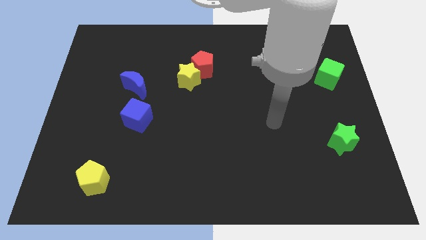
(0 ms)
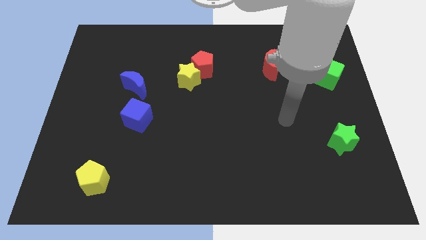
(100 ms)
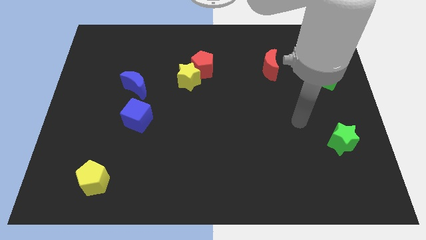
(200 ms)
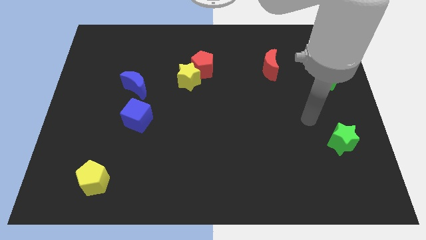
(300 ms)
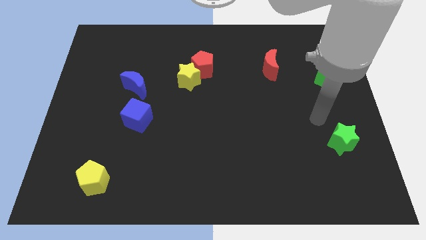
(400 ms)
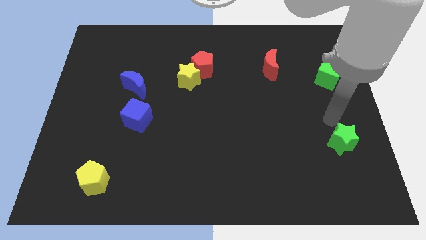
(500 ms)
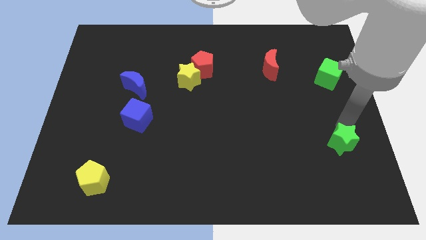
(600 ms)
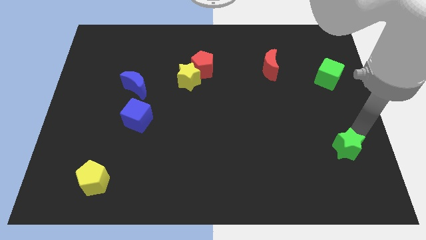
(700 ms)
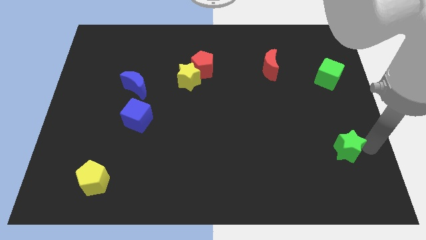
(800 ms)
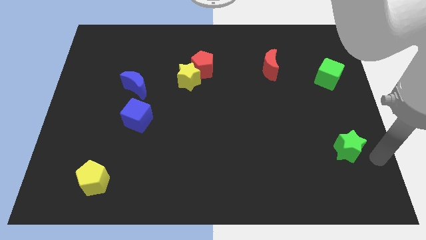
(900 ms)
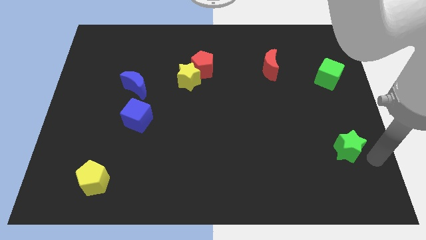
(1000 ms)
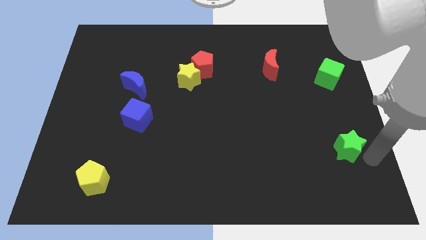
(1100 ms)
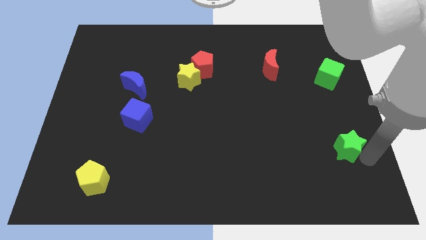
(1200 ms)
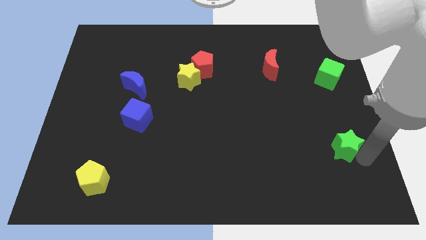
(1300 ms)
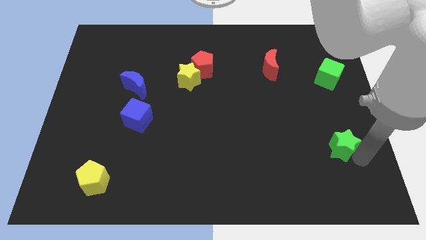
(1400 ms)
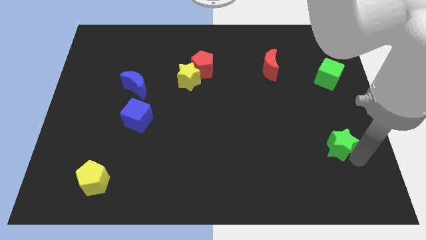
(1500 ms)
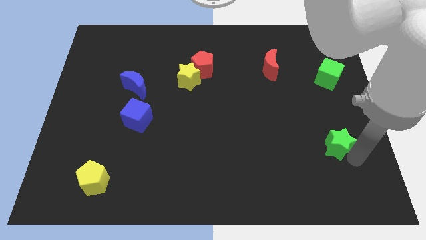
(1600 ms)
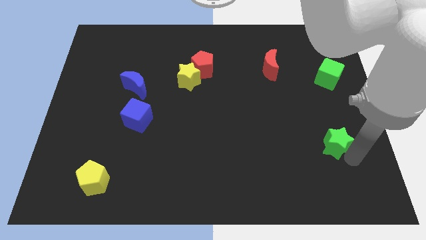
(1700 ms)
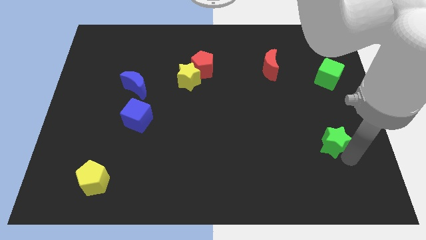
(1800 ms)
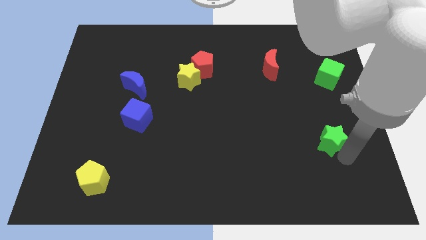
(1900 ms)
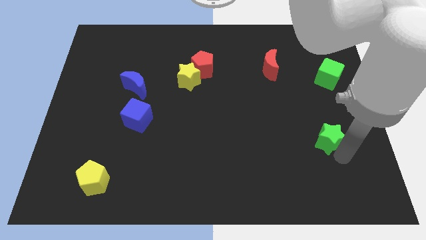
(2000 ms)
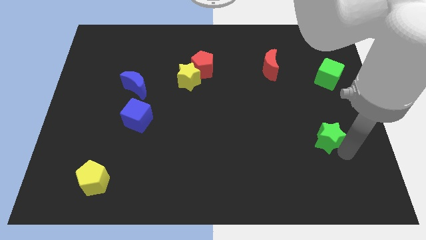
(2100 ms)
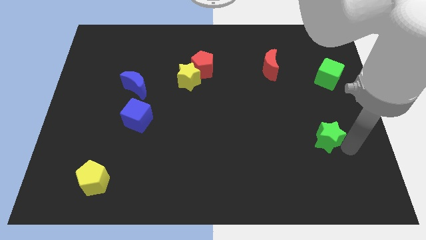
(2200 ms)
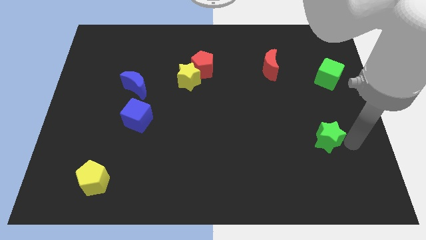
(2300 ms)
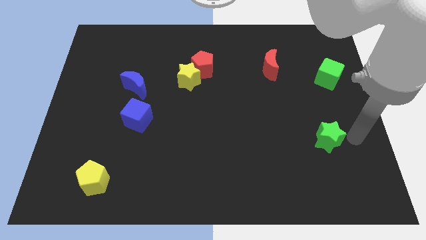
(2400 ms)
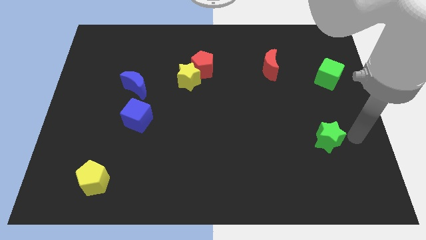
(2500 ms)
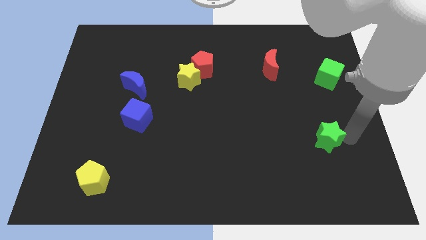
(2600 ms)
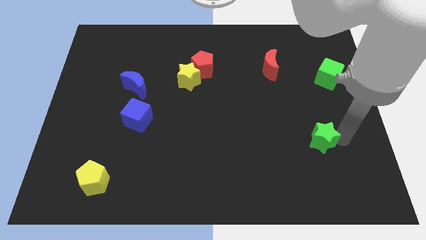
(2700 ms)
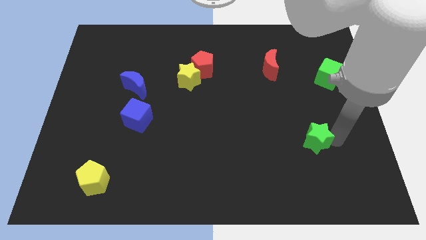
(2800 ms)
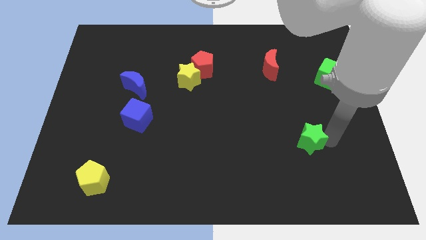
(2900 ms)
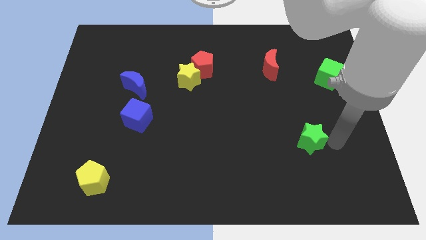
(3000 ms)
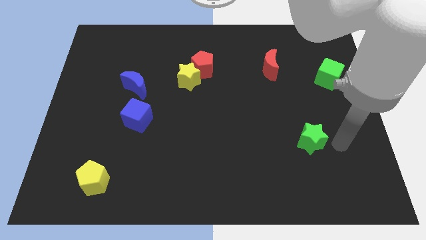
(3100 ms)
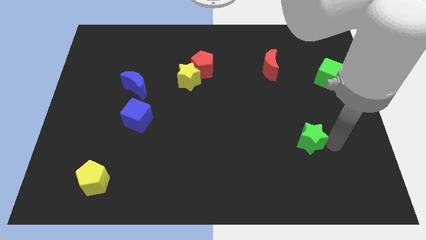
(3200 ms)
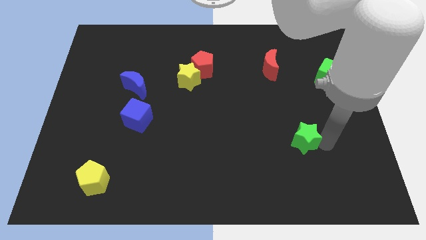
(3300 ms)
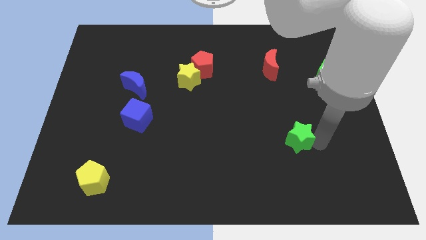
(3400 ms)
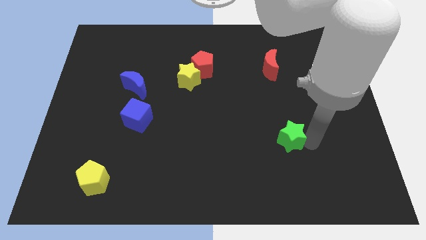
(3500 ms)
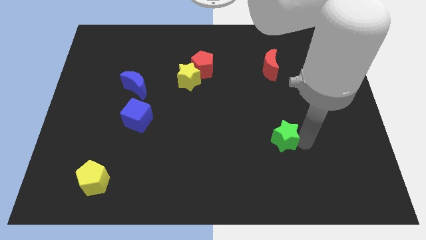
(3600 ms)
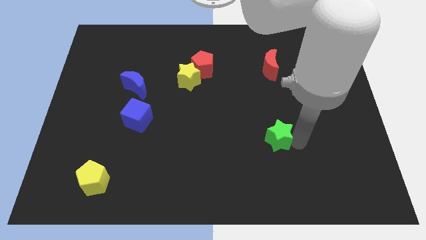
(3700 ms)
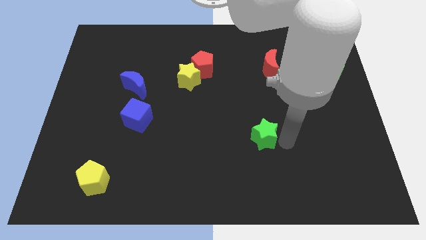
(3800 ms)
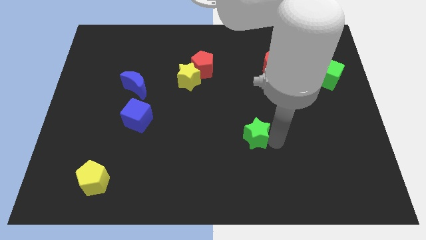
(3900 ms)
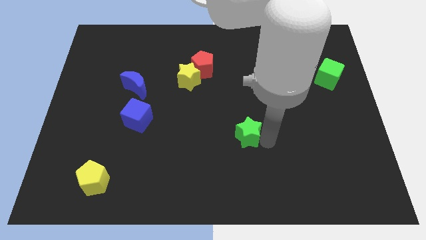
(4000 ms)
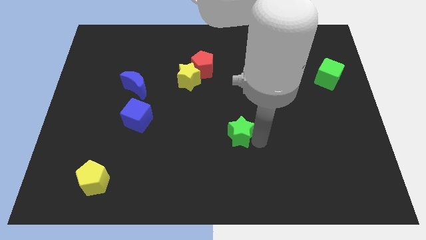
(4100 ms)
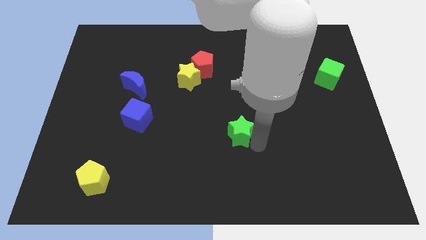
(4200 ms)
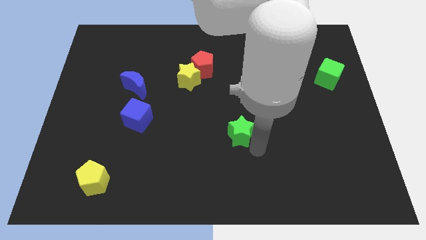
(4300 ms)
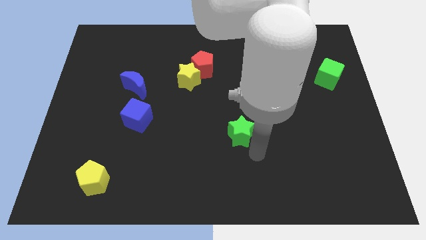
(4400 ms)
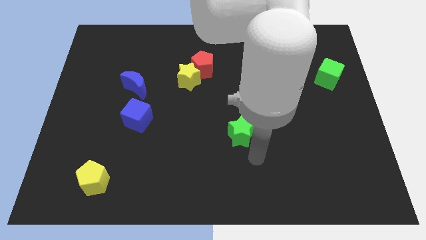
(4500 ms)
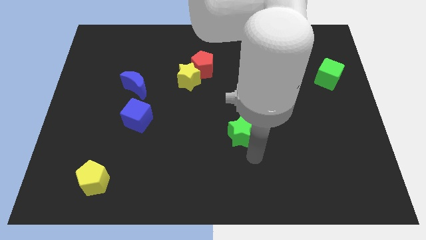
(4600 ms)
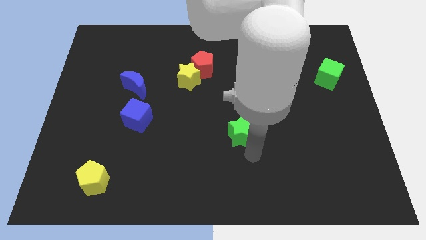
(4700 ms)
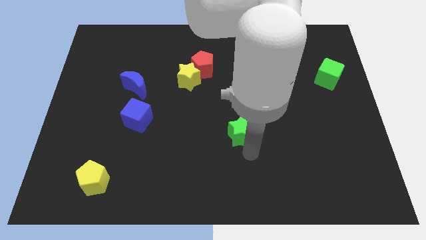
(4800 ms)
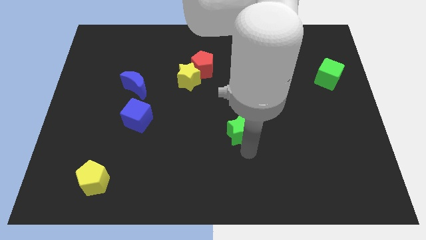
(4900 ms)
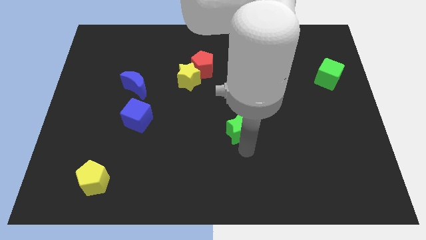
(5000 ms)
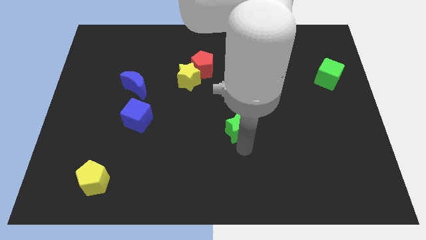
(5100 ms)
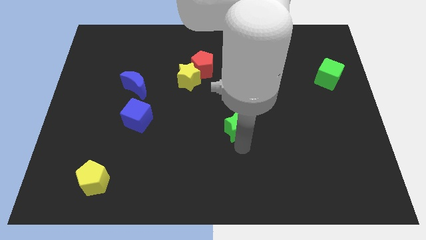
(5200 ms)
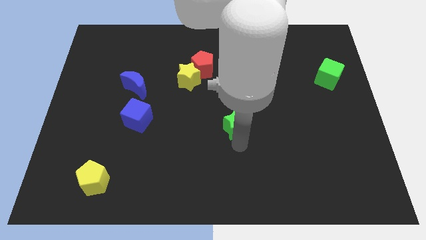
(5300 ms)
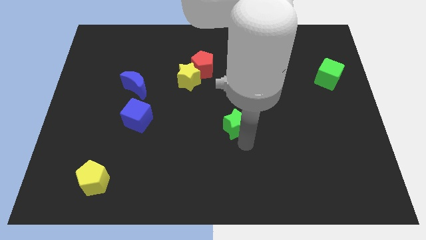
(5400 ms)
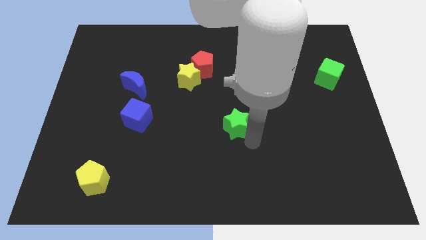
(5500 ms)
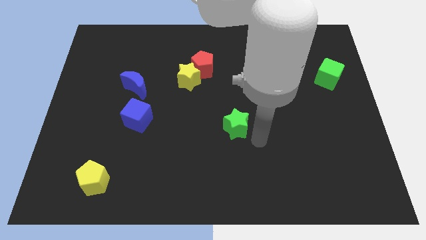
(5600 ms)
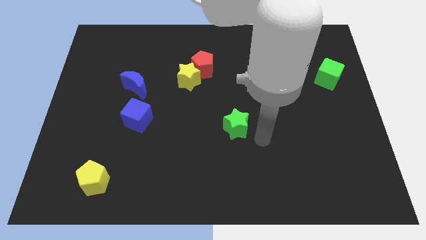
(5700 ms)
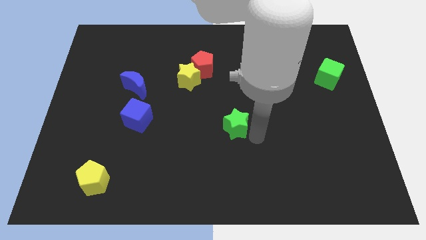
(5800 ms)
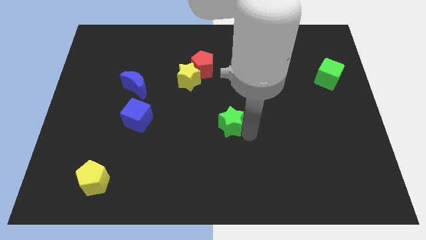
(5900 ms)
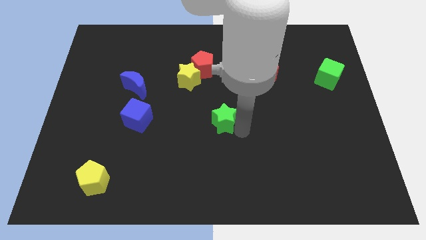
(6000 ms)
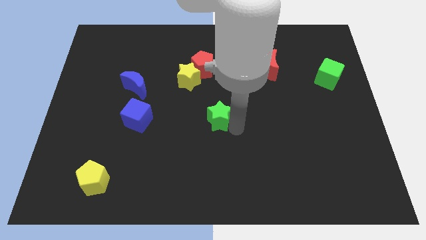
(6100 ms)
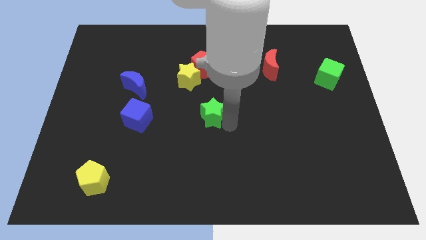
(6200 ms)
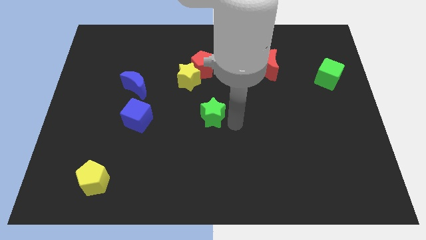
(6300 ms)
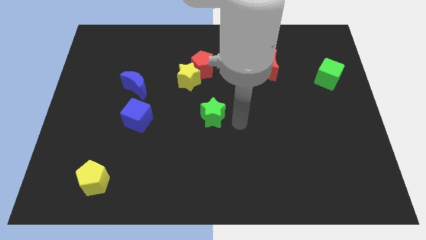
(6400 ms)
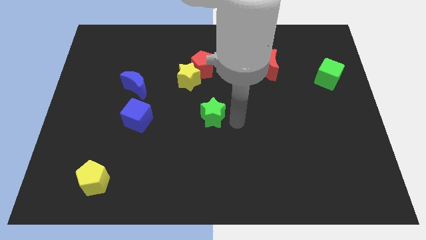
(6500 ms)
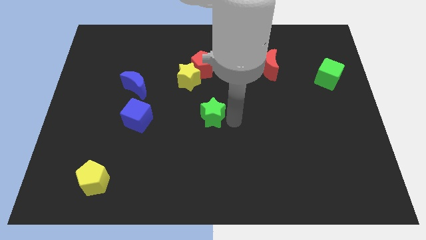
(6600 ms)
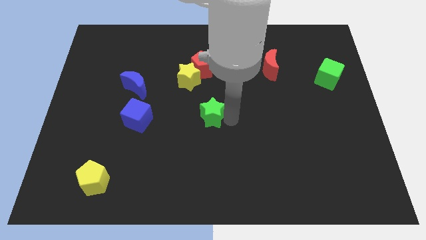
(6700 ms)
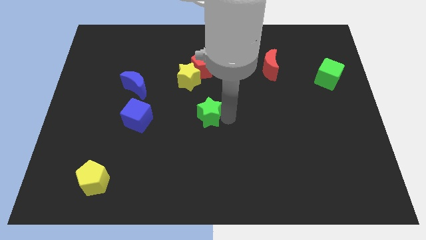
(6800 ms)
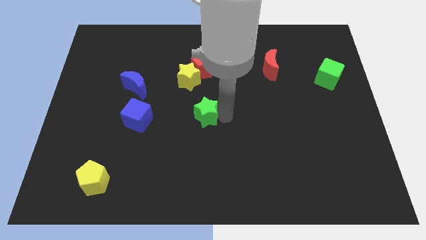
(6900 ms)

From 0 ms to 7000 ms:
move the green star to the bottom of the yellow star
